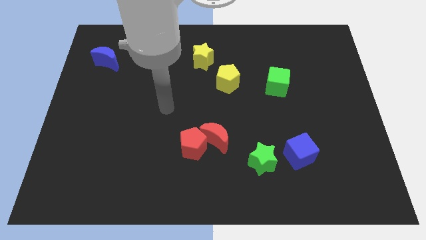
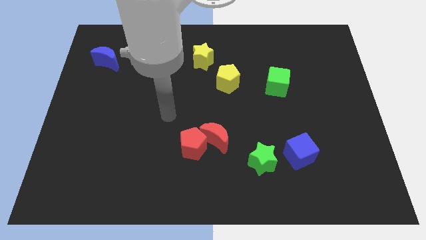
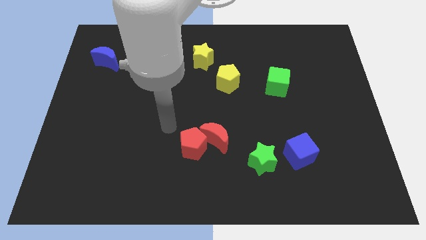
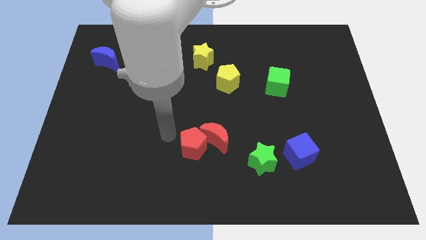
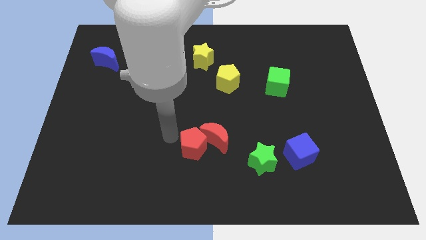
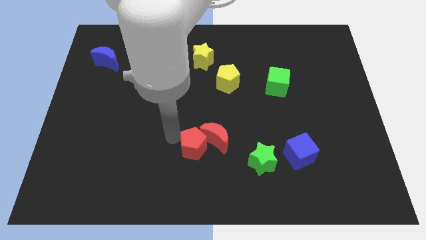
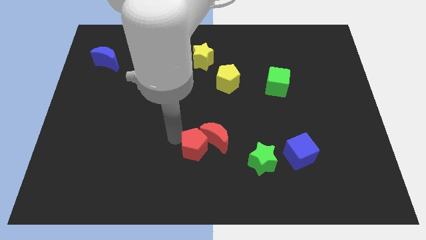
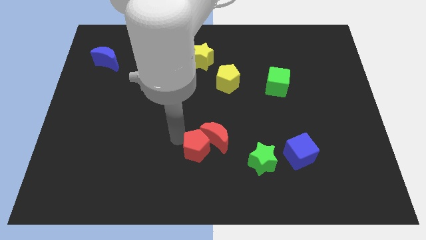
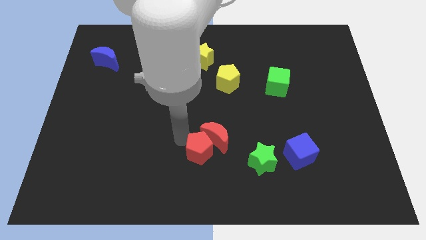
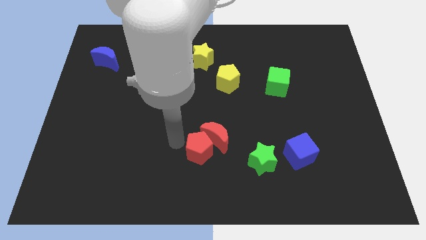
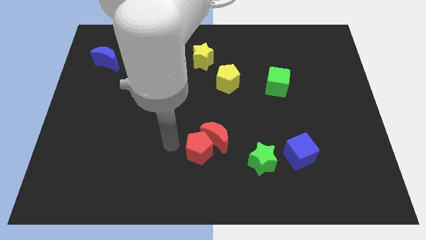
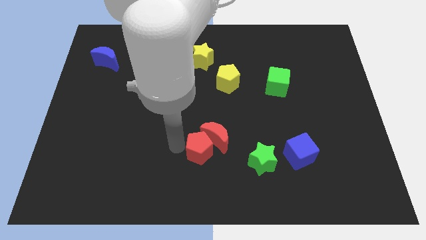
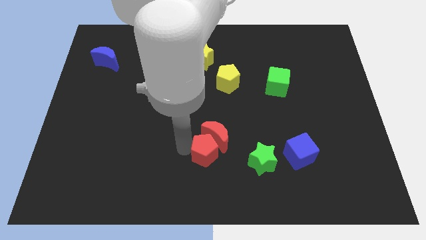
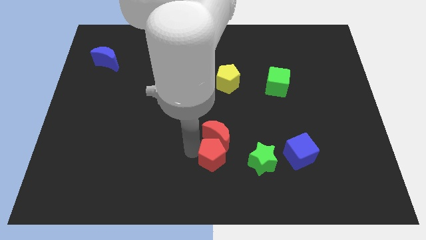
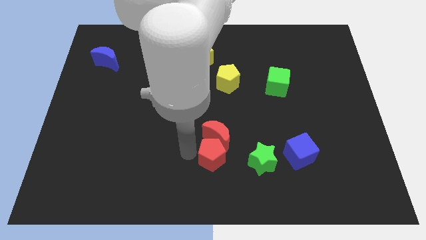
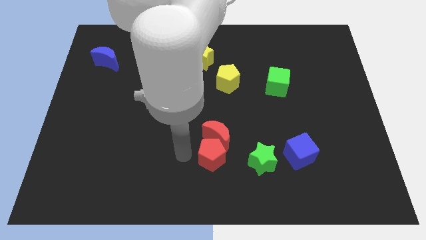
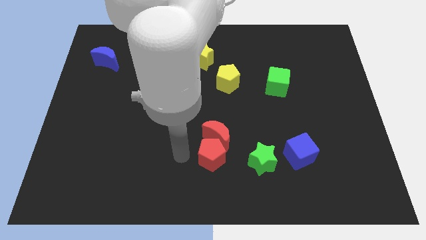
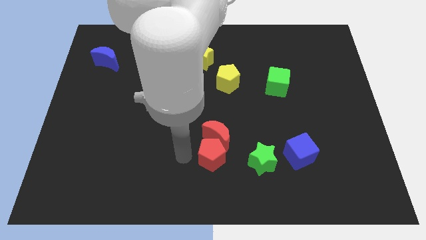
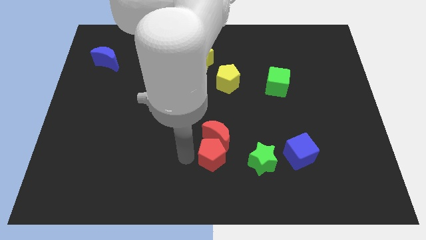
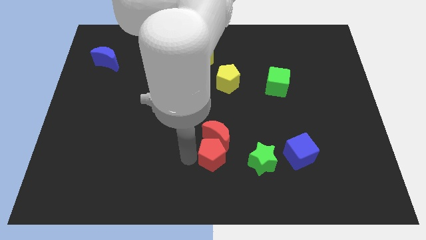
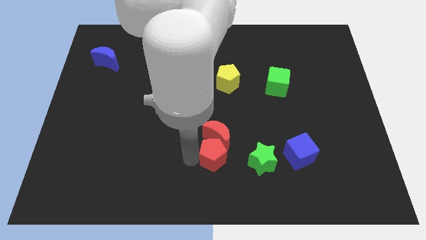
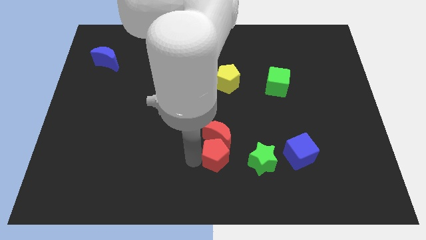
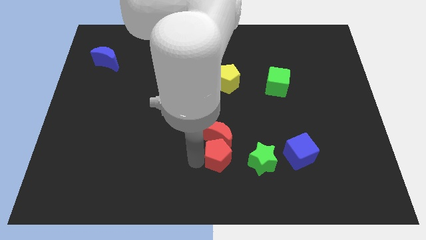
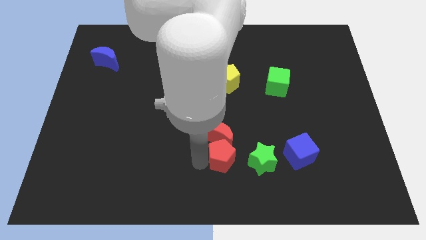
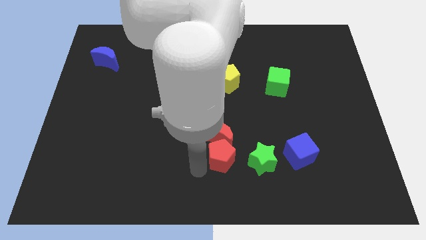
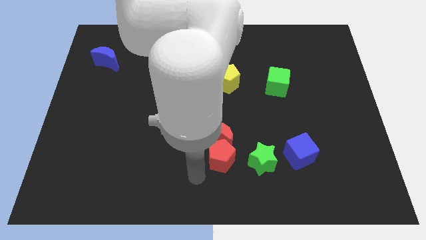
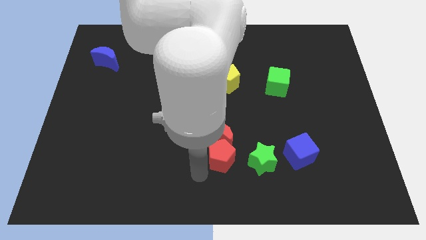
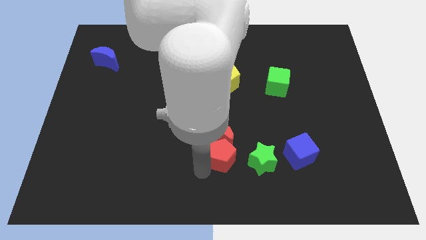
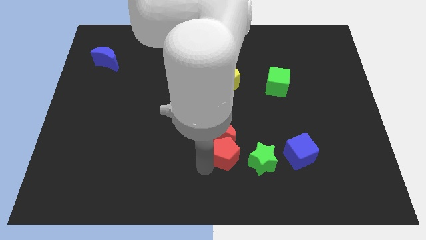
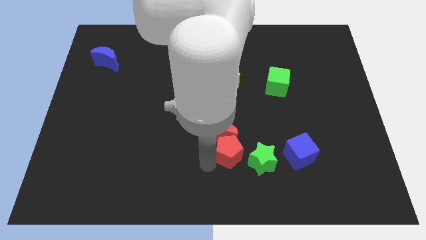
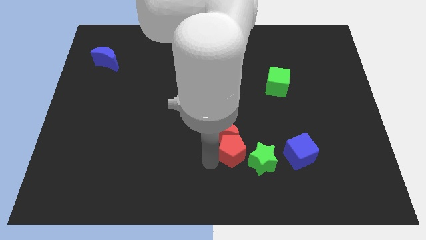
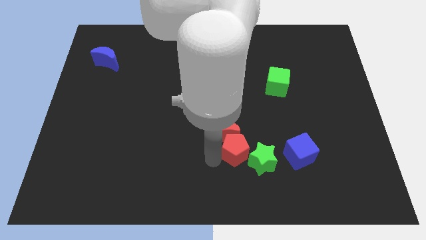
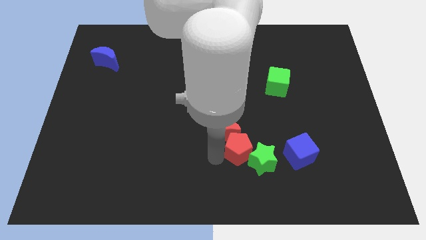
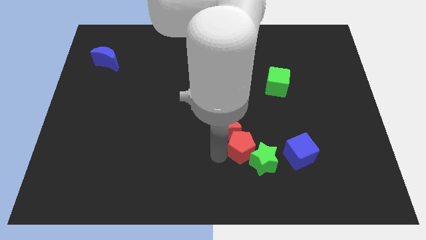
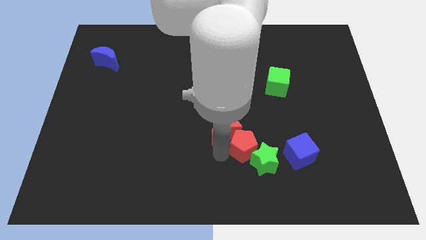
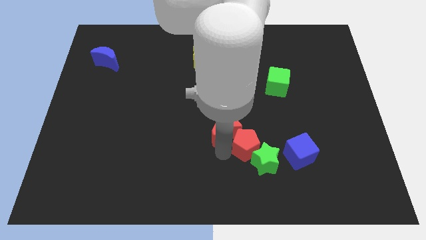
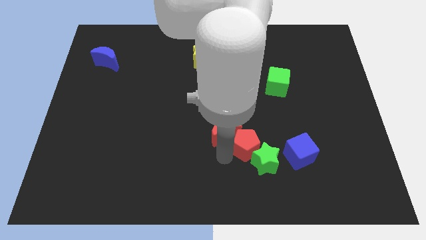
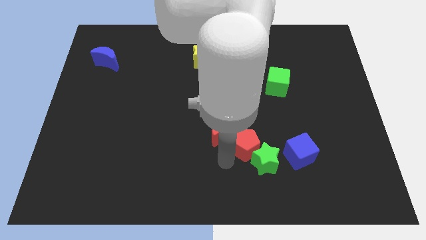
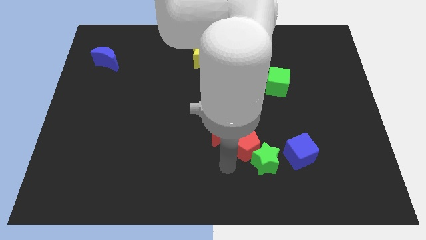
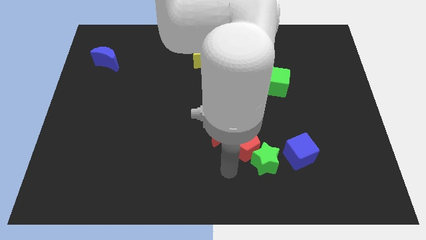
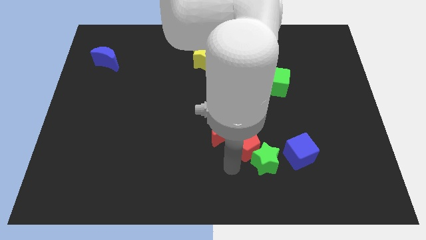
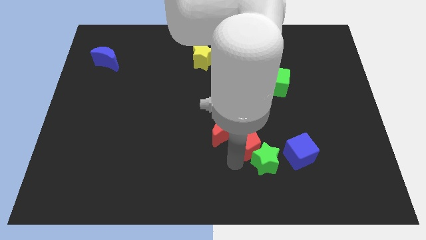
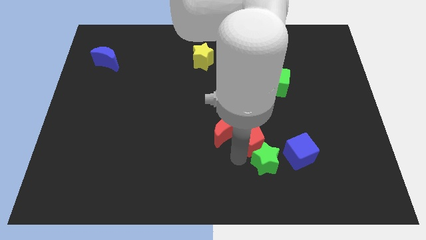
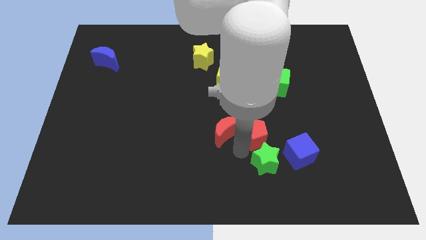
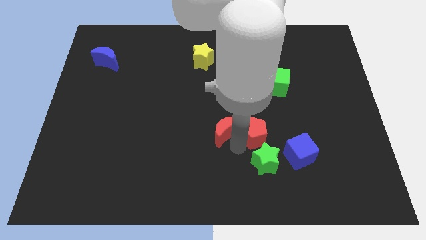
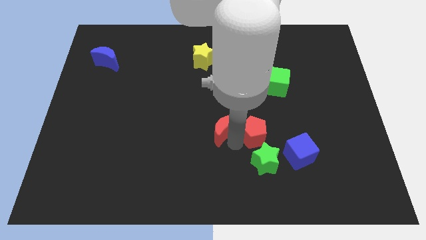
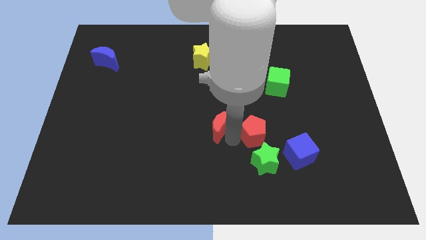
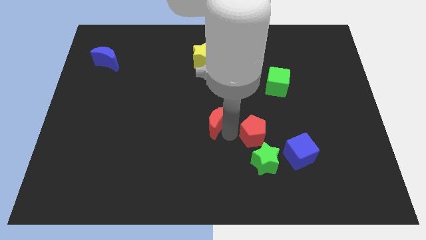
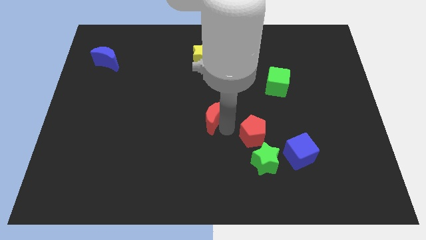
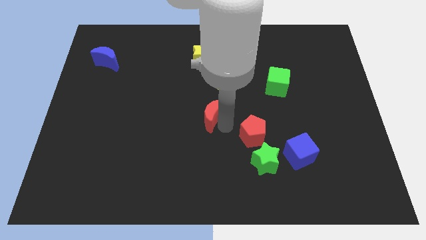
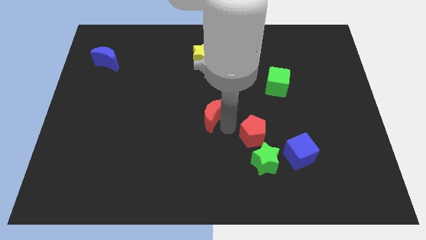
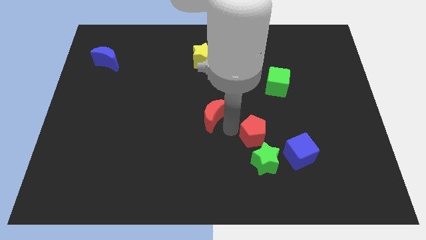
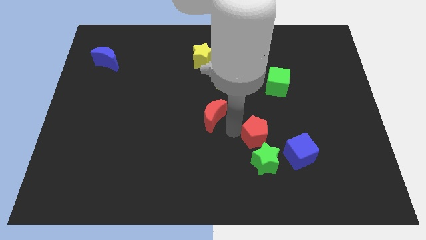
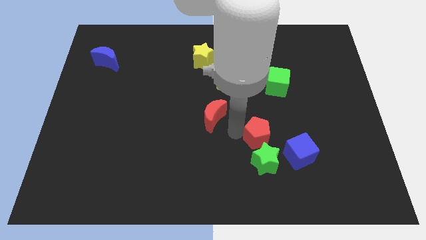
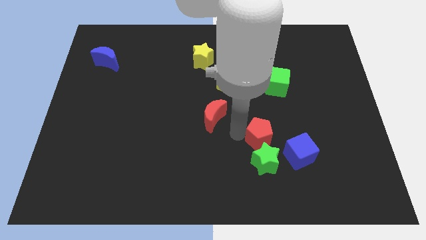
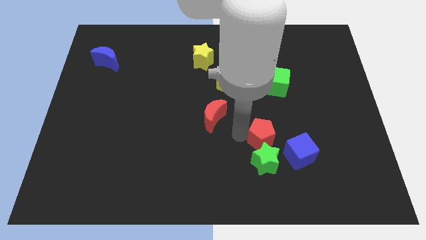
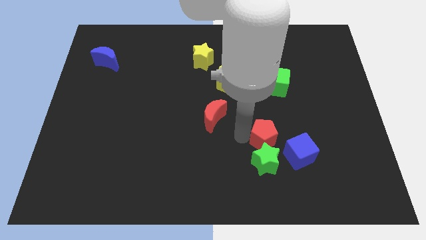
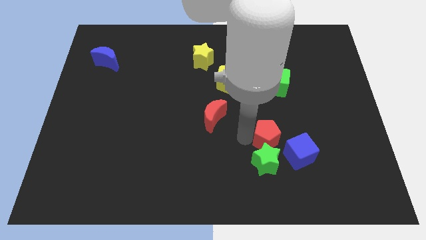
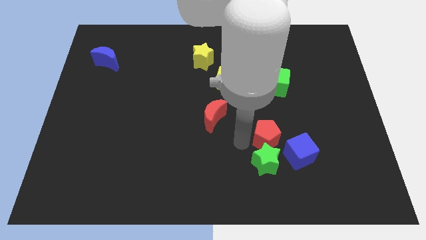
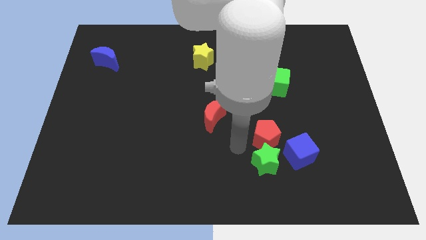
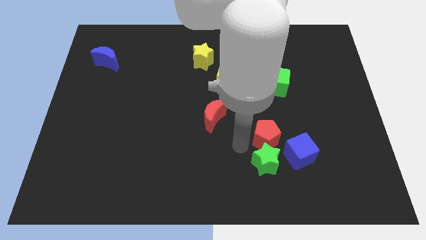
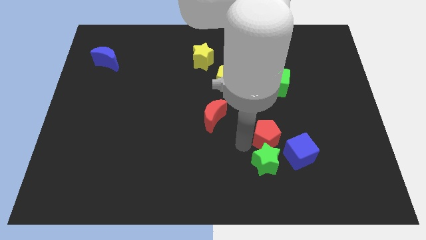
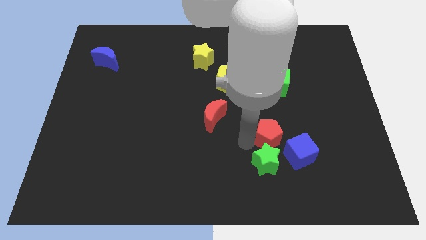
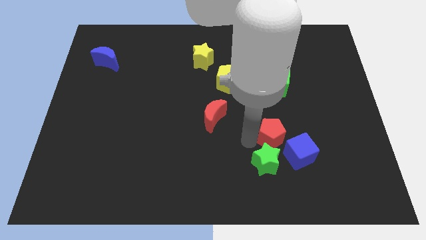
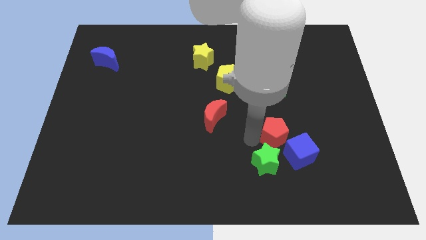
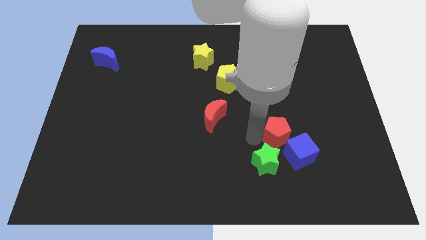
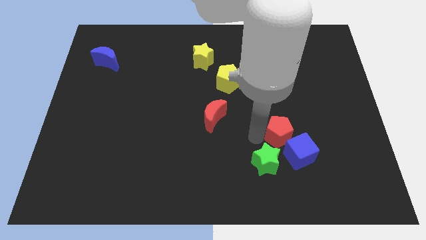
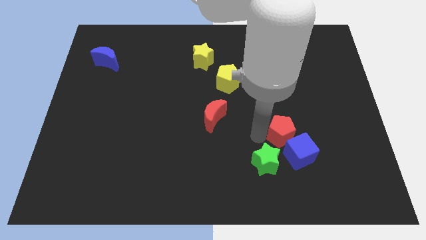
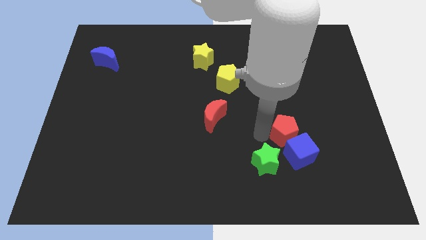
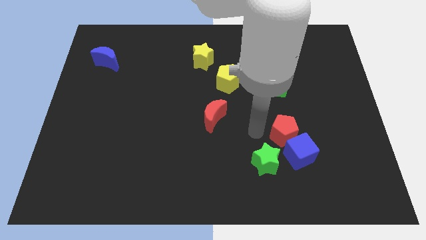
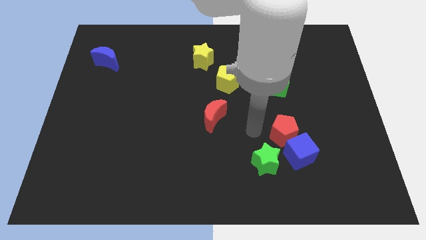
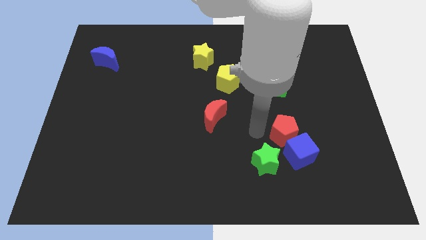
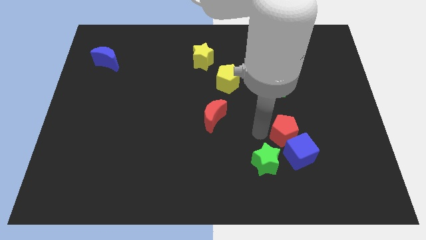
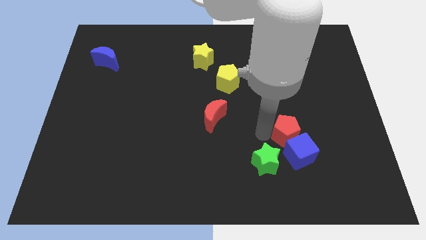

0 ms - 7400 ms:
push the red pentagon right

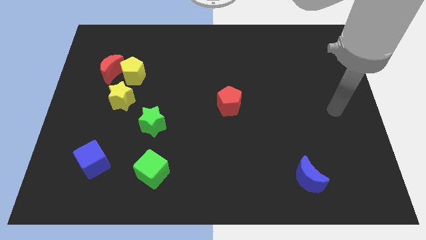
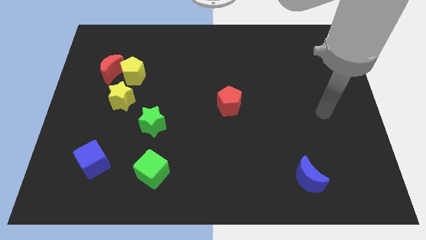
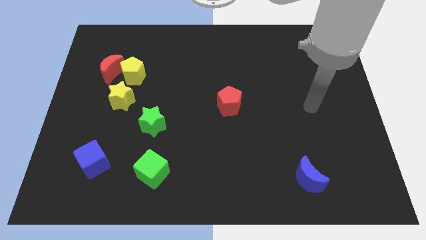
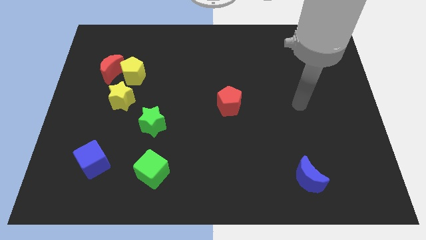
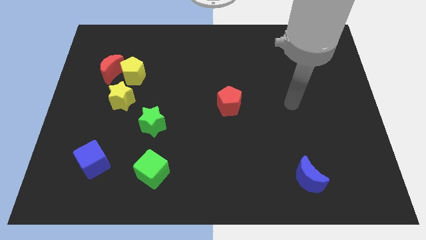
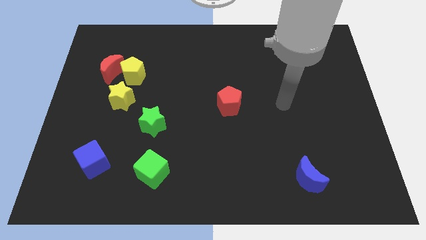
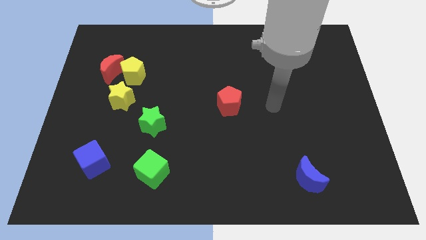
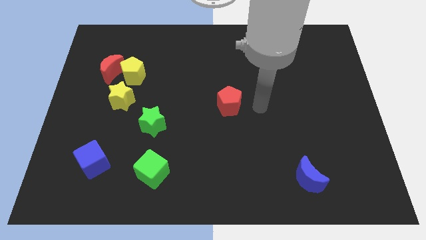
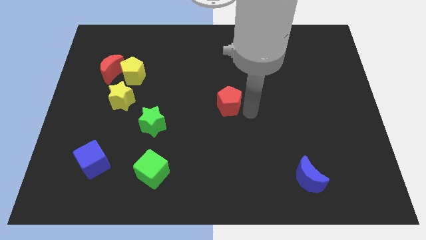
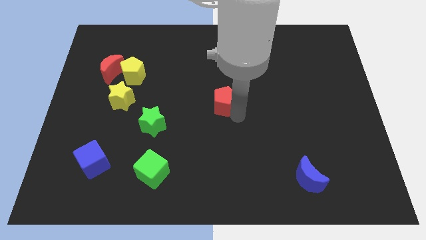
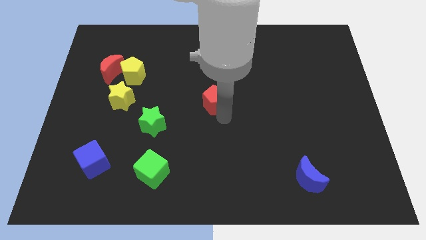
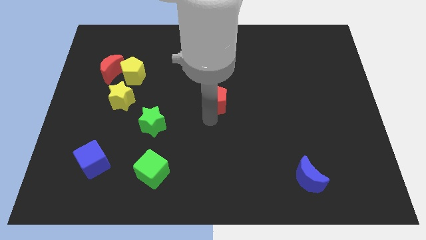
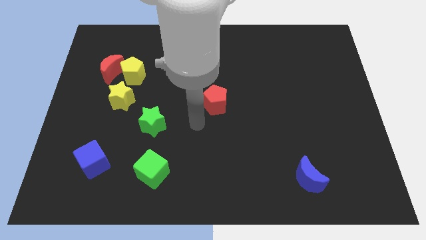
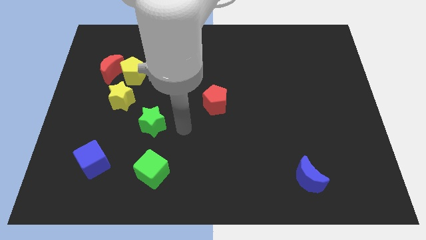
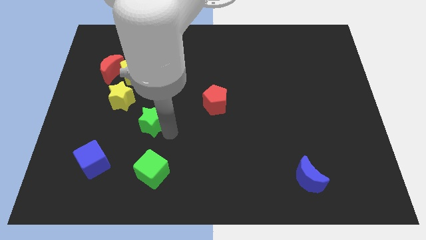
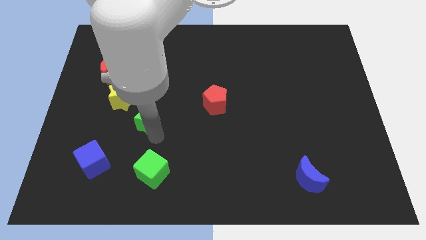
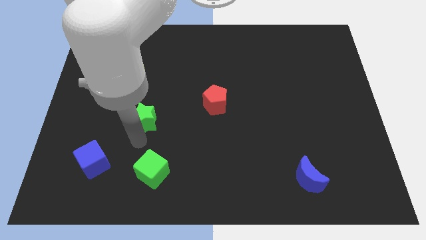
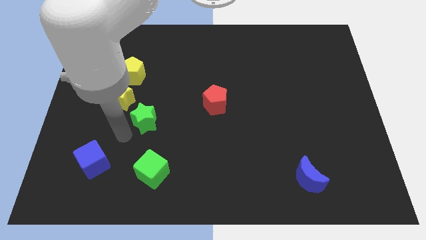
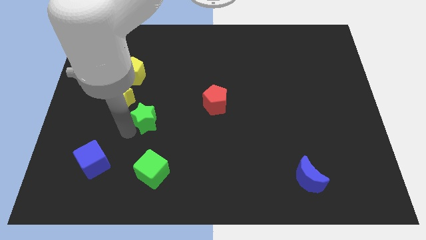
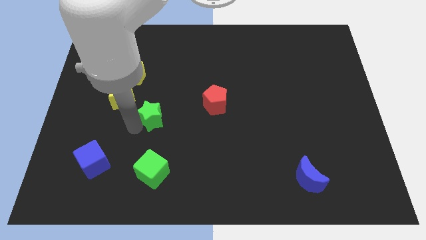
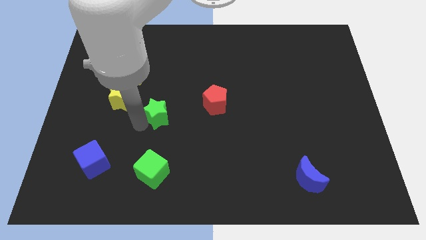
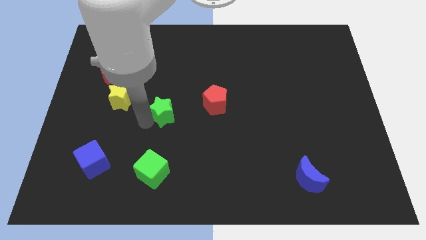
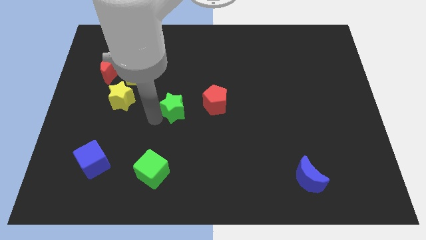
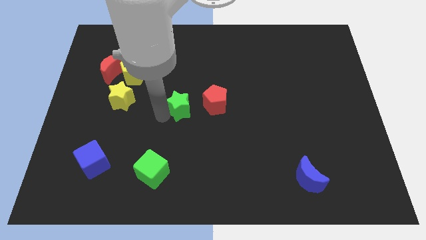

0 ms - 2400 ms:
slightly push the green star up and then right
